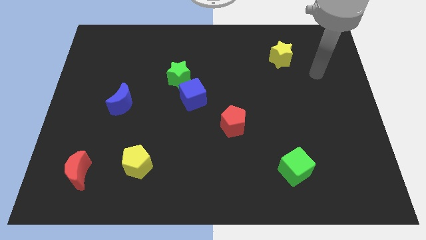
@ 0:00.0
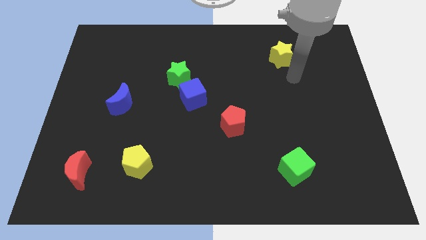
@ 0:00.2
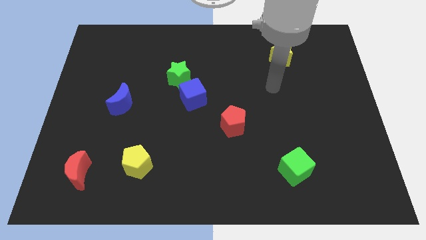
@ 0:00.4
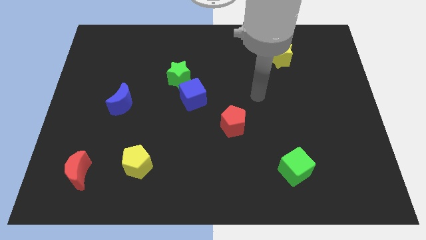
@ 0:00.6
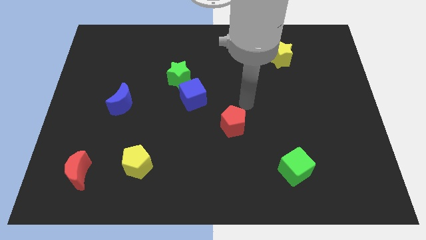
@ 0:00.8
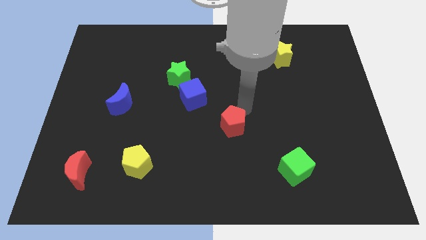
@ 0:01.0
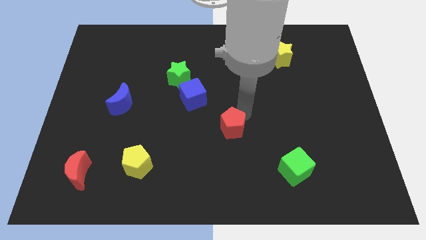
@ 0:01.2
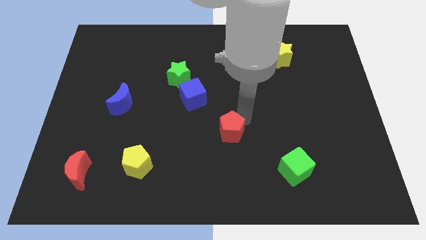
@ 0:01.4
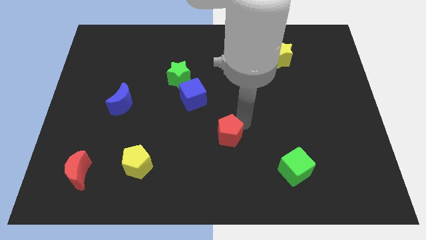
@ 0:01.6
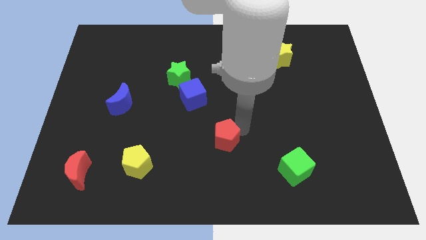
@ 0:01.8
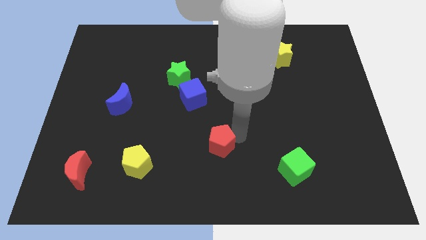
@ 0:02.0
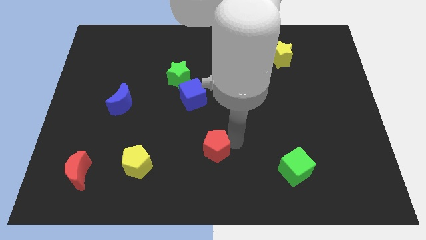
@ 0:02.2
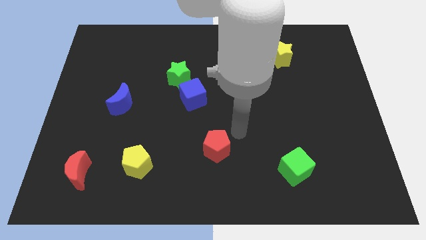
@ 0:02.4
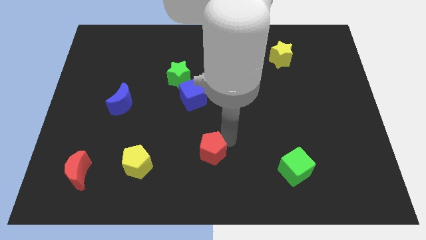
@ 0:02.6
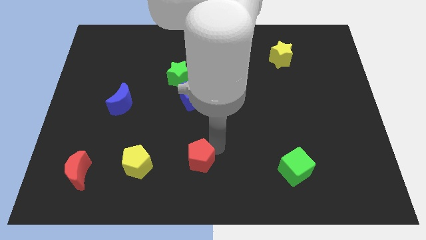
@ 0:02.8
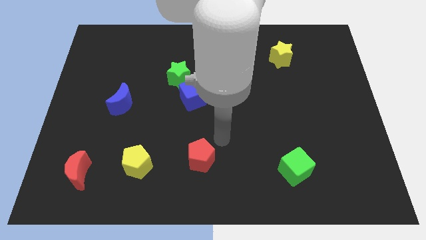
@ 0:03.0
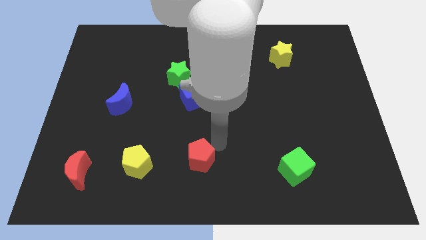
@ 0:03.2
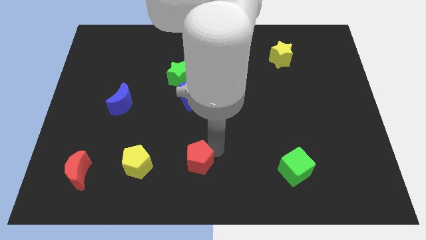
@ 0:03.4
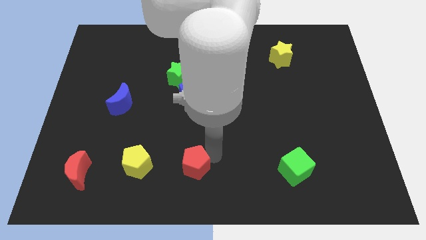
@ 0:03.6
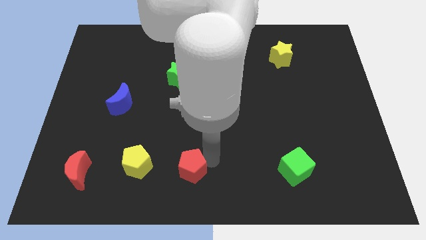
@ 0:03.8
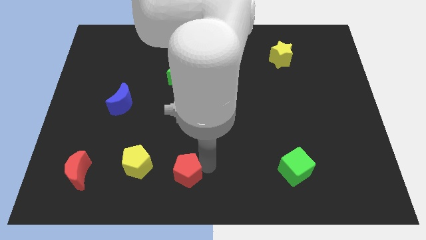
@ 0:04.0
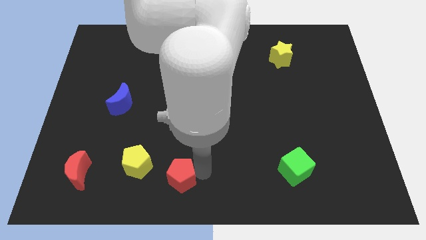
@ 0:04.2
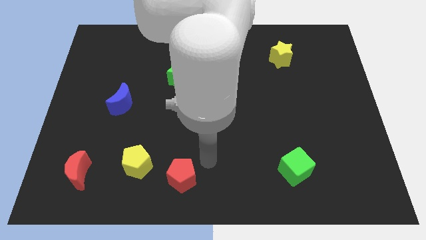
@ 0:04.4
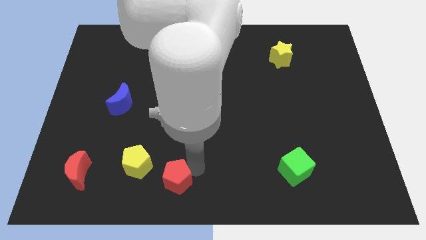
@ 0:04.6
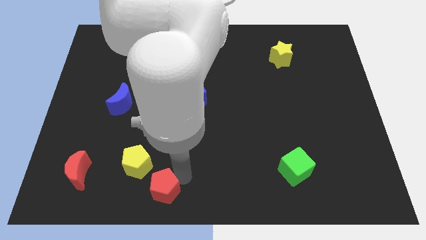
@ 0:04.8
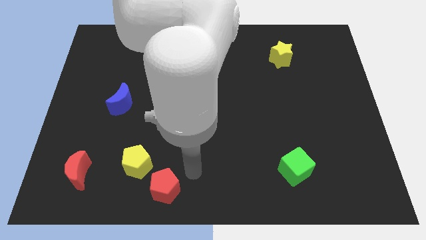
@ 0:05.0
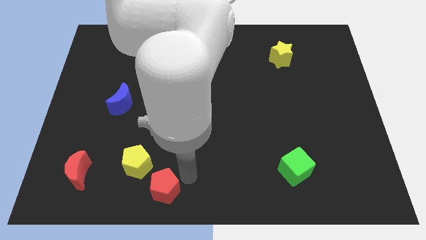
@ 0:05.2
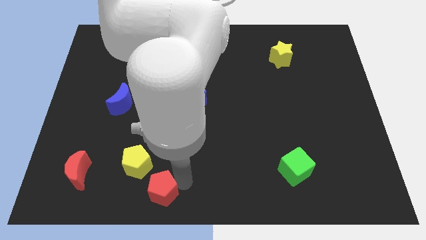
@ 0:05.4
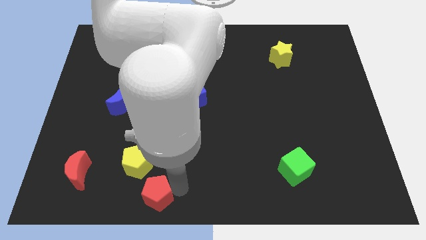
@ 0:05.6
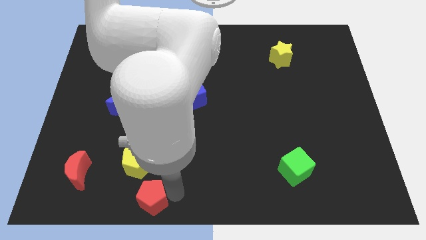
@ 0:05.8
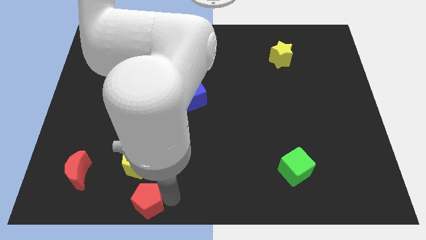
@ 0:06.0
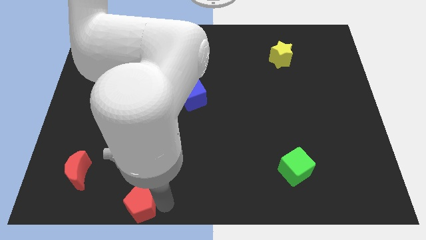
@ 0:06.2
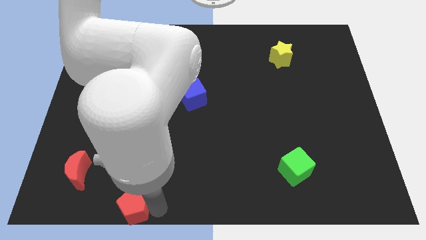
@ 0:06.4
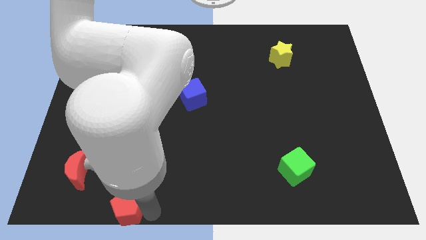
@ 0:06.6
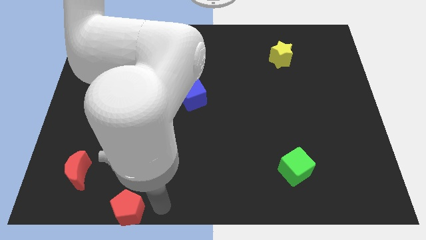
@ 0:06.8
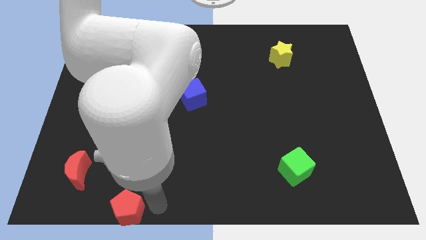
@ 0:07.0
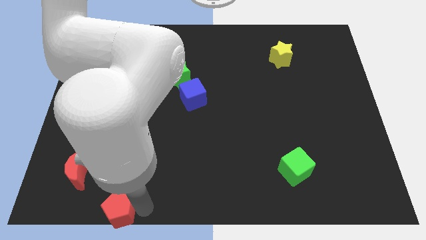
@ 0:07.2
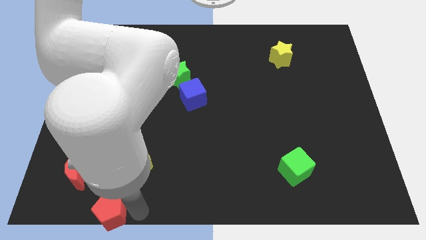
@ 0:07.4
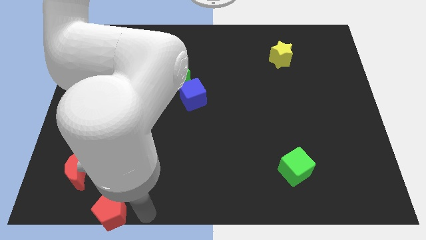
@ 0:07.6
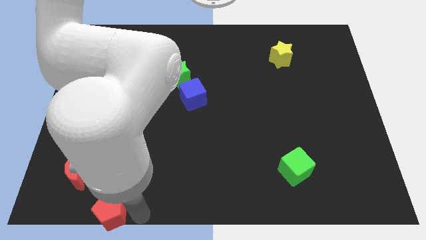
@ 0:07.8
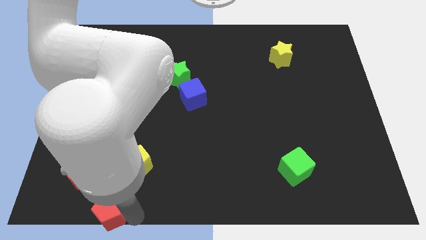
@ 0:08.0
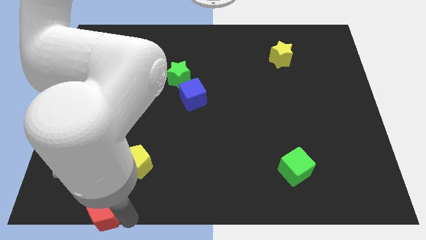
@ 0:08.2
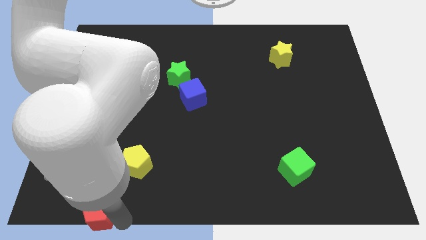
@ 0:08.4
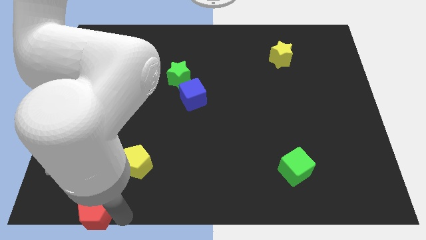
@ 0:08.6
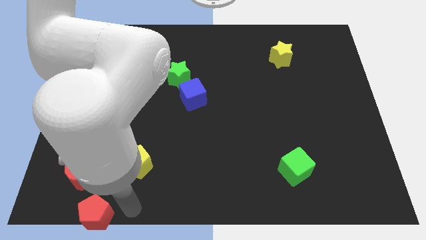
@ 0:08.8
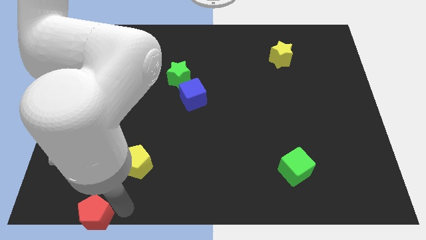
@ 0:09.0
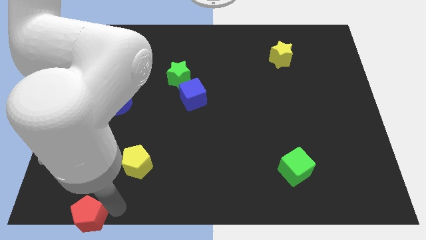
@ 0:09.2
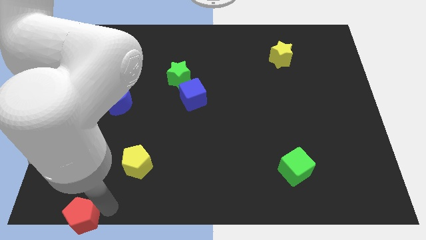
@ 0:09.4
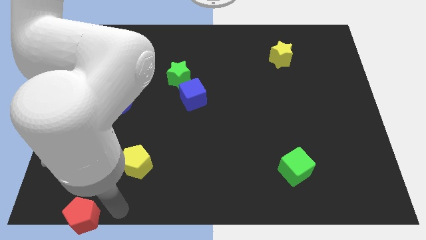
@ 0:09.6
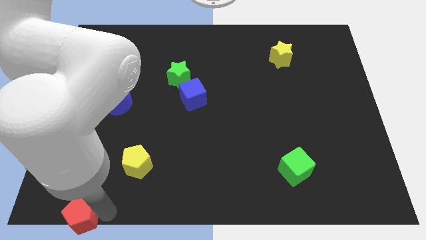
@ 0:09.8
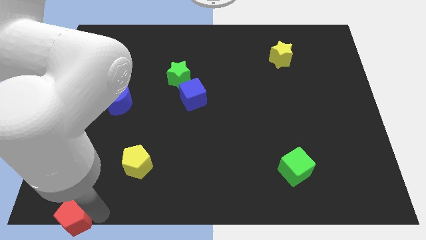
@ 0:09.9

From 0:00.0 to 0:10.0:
move the red pentagon to the bottom left
